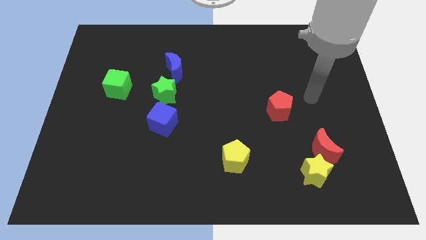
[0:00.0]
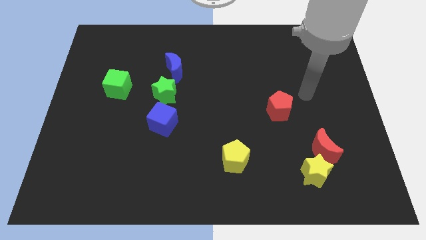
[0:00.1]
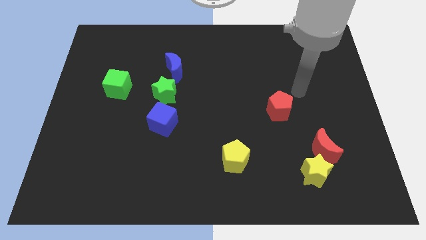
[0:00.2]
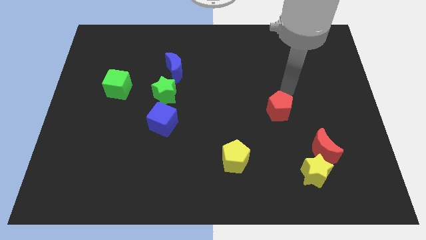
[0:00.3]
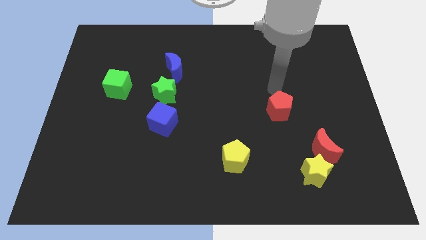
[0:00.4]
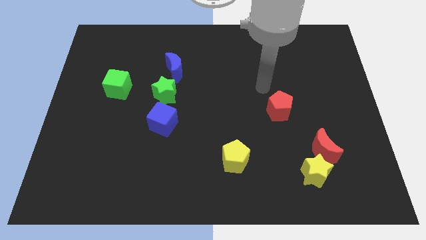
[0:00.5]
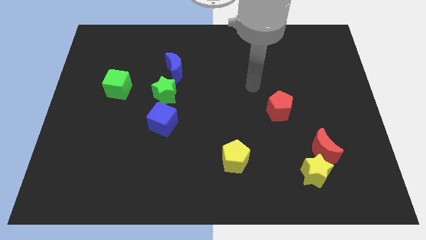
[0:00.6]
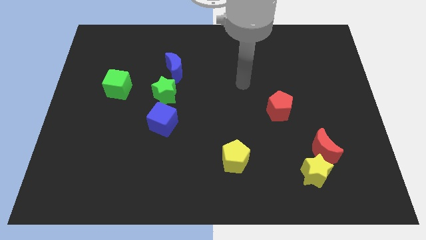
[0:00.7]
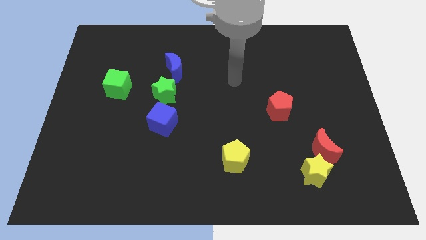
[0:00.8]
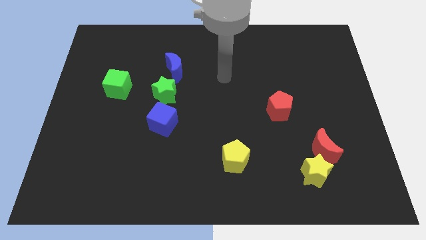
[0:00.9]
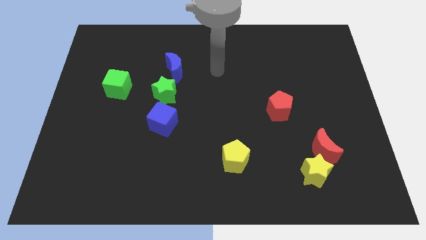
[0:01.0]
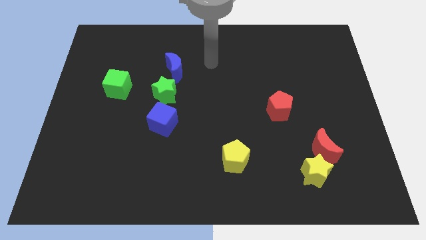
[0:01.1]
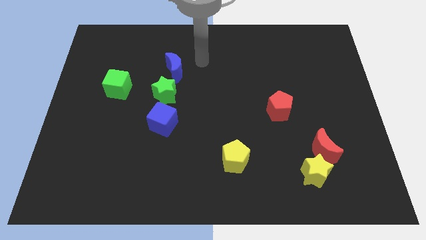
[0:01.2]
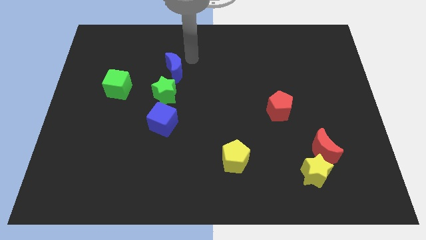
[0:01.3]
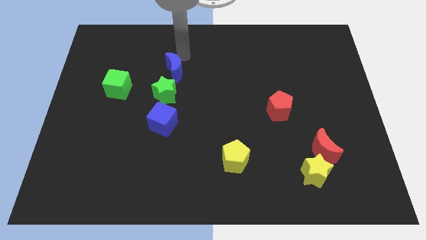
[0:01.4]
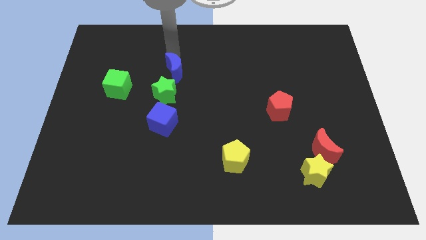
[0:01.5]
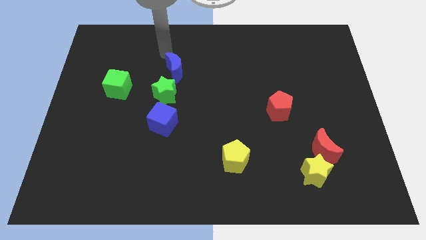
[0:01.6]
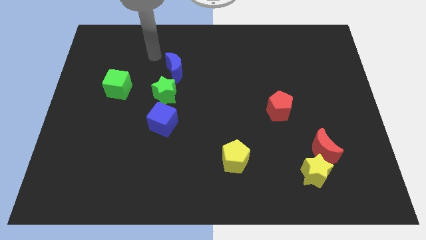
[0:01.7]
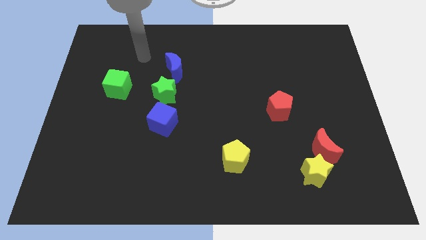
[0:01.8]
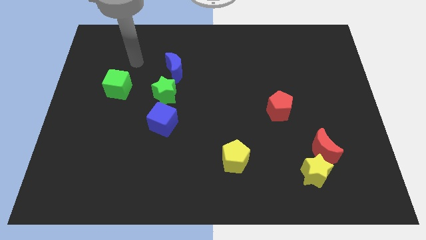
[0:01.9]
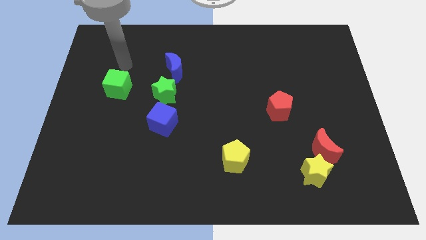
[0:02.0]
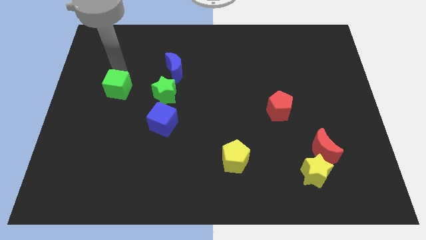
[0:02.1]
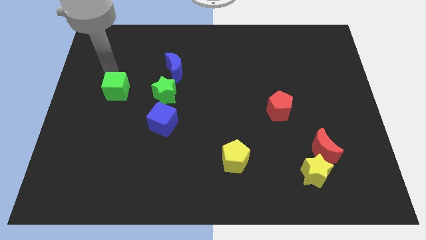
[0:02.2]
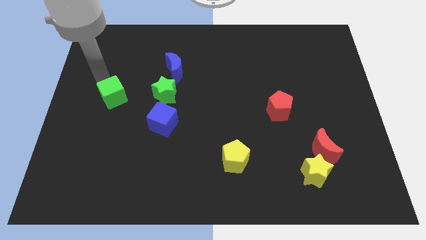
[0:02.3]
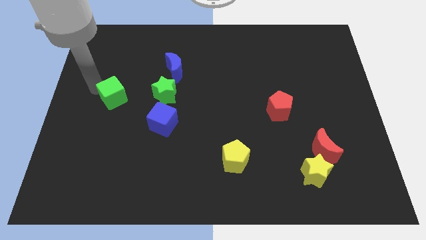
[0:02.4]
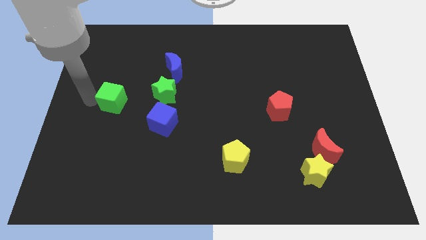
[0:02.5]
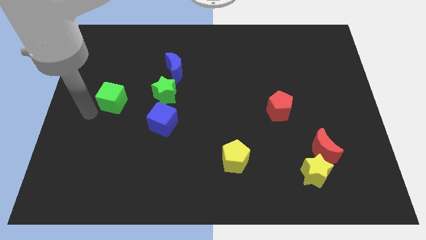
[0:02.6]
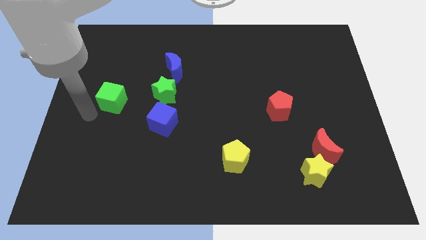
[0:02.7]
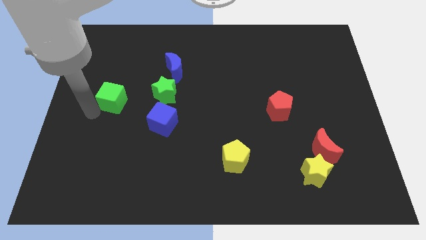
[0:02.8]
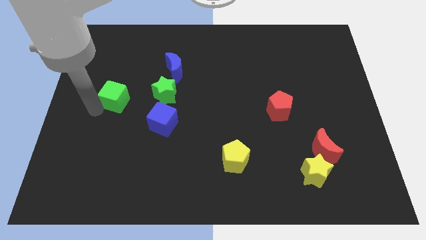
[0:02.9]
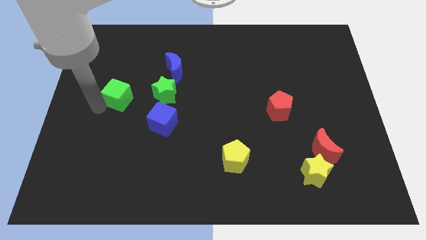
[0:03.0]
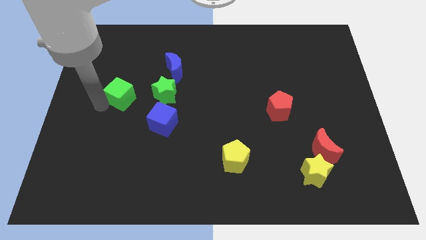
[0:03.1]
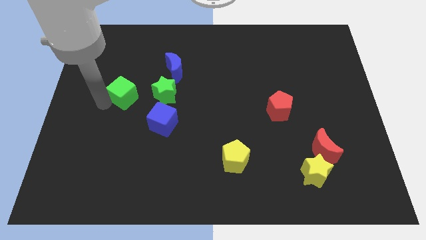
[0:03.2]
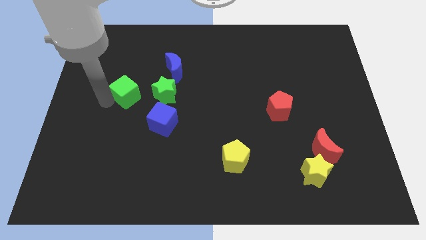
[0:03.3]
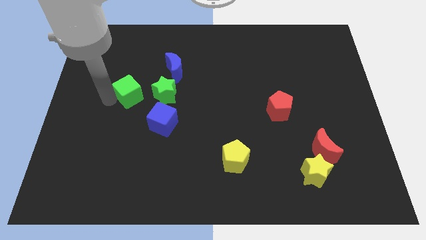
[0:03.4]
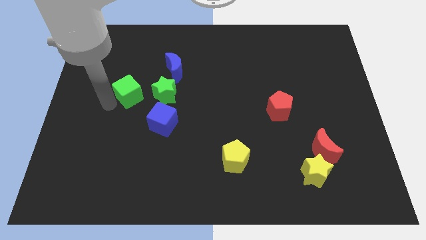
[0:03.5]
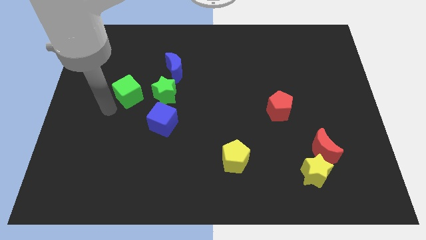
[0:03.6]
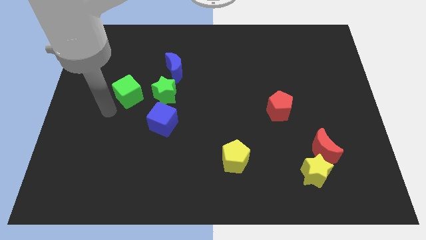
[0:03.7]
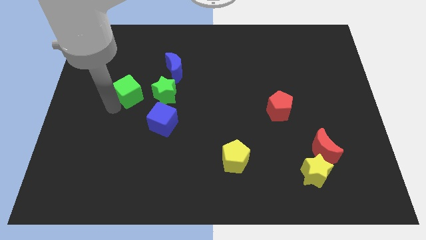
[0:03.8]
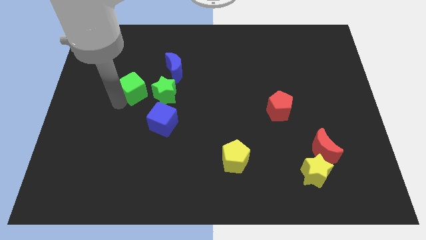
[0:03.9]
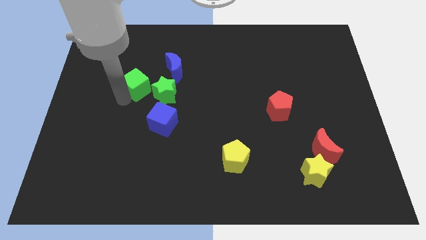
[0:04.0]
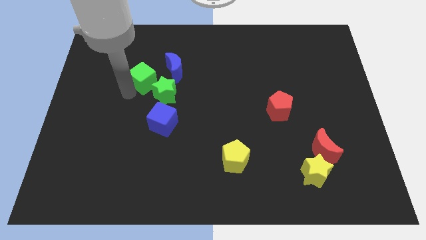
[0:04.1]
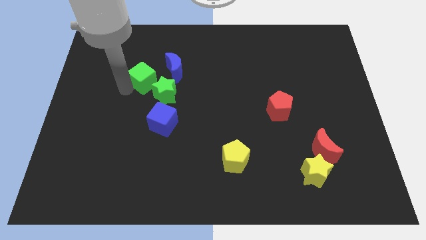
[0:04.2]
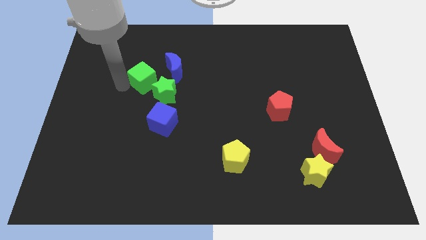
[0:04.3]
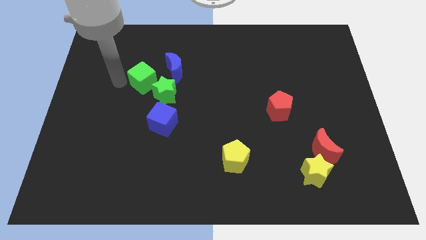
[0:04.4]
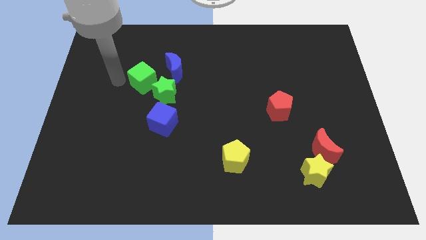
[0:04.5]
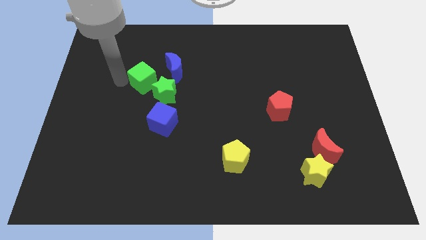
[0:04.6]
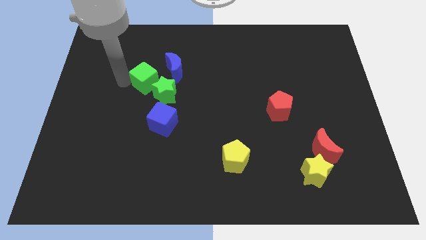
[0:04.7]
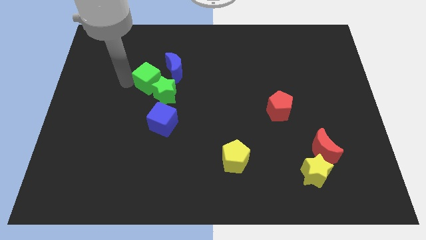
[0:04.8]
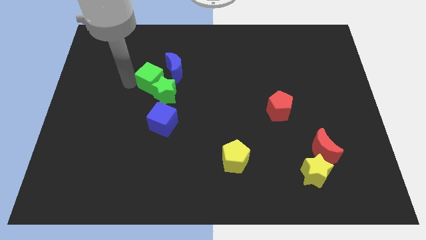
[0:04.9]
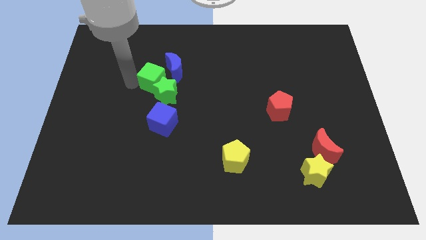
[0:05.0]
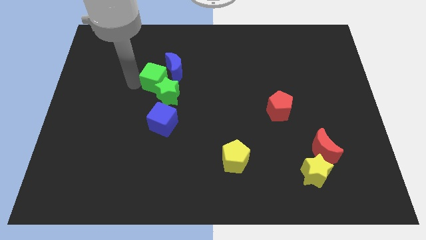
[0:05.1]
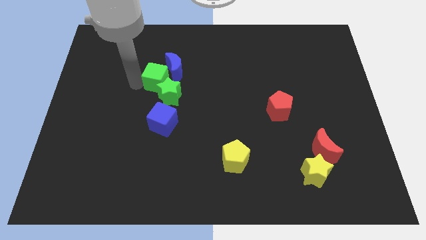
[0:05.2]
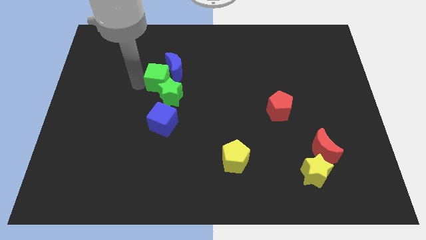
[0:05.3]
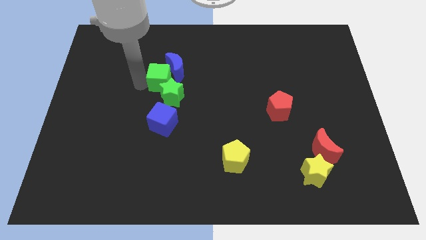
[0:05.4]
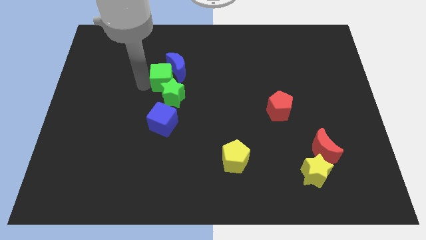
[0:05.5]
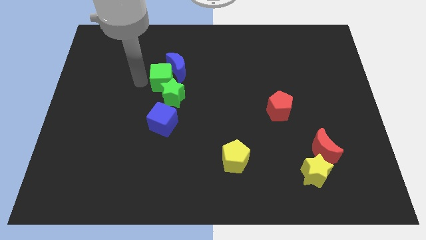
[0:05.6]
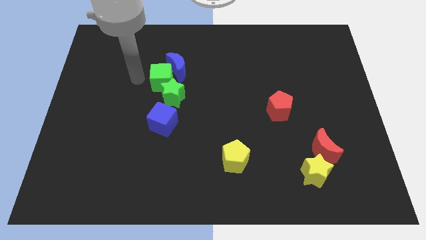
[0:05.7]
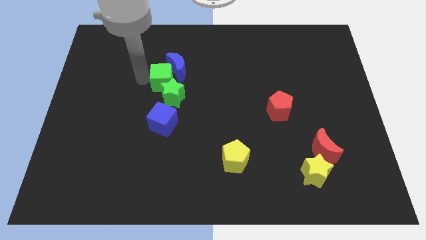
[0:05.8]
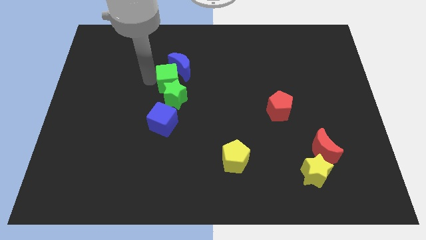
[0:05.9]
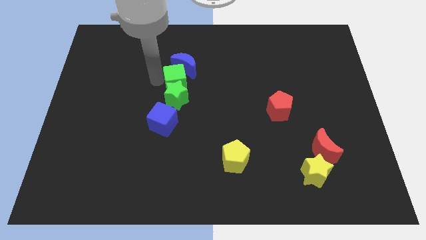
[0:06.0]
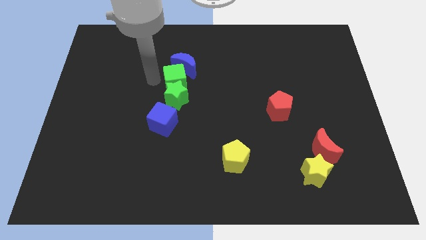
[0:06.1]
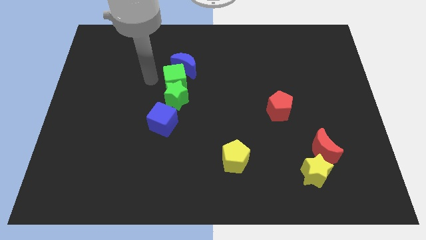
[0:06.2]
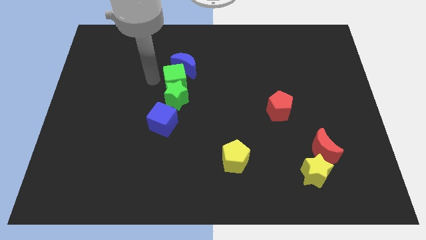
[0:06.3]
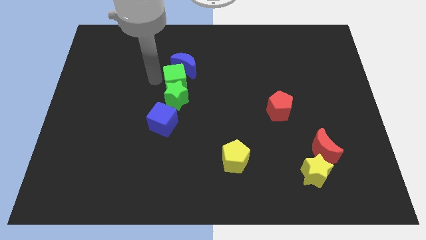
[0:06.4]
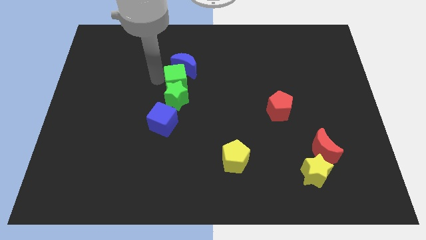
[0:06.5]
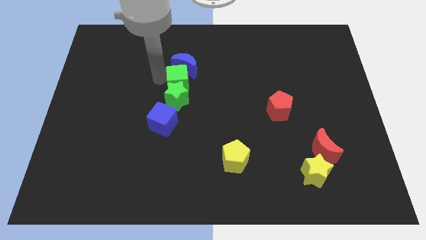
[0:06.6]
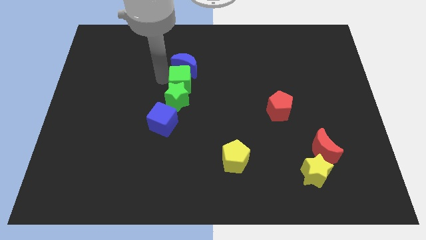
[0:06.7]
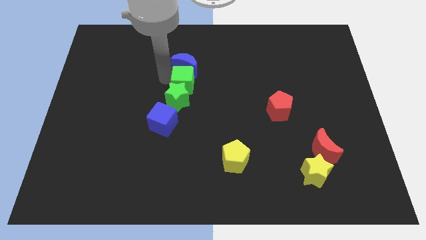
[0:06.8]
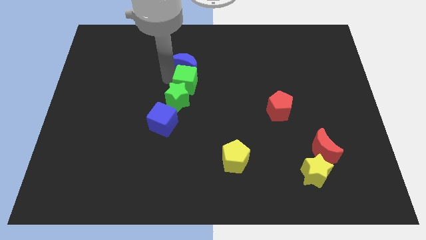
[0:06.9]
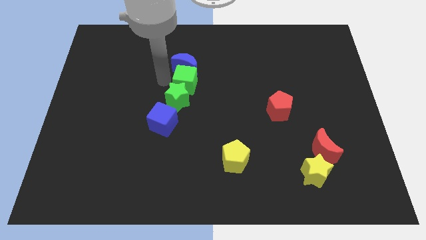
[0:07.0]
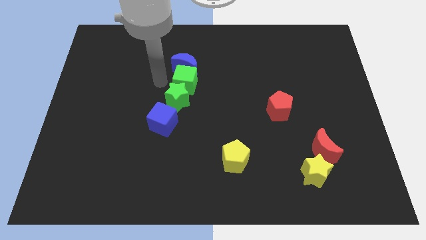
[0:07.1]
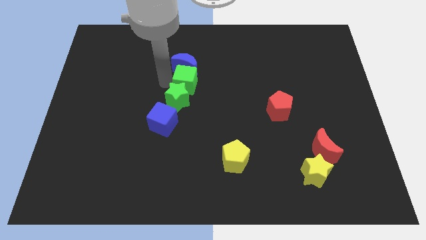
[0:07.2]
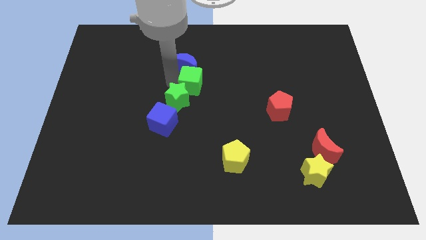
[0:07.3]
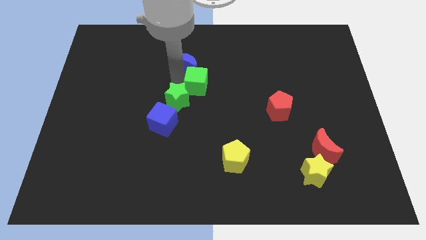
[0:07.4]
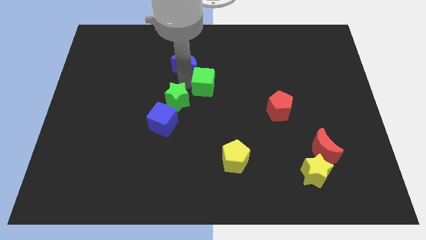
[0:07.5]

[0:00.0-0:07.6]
move the green cube right

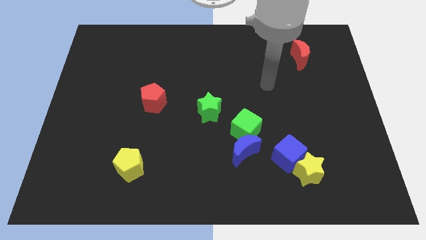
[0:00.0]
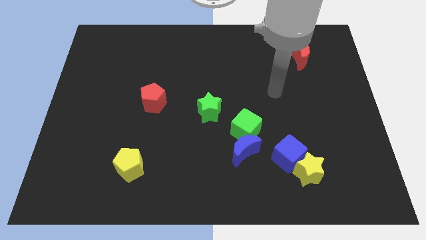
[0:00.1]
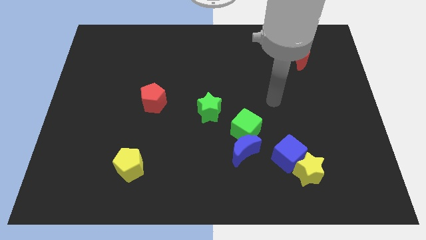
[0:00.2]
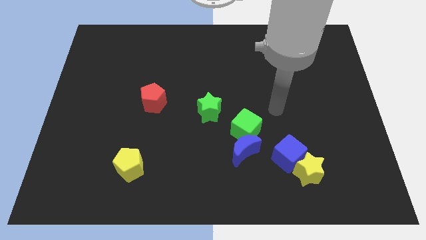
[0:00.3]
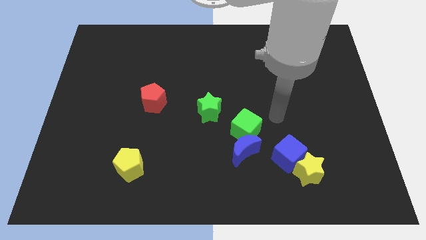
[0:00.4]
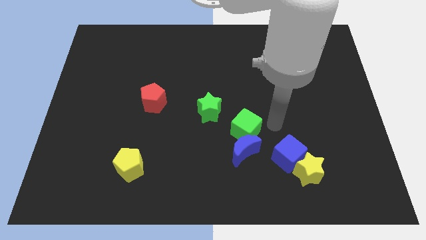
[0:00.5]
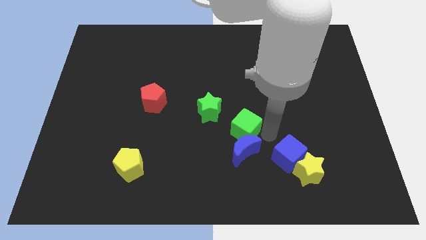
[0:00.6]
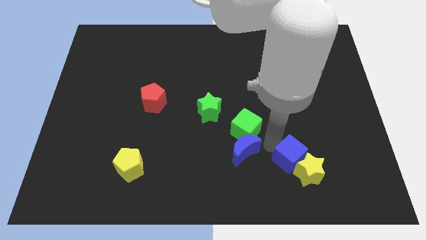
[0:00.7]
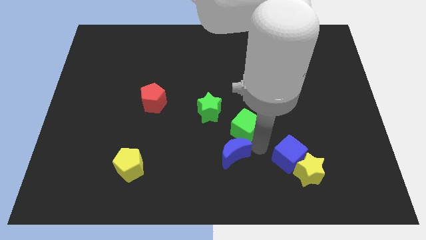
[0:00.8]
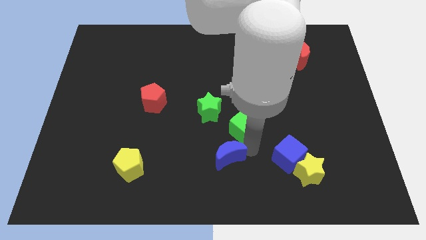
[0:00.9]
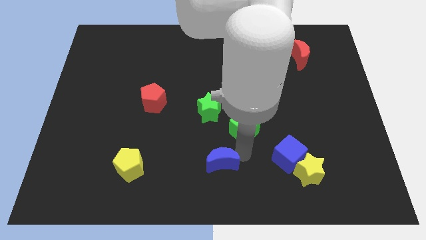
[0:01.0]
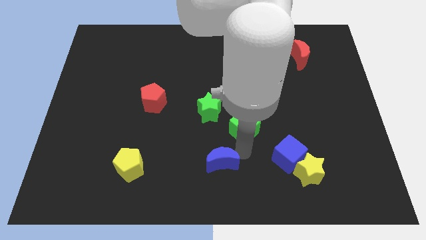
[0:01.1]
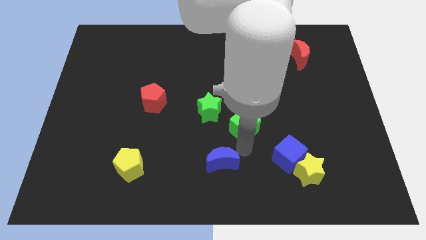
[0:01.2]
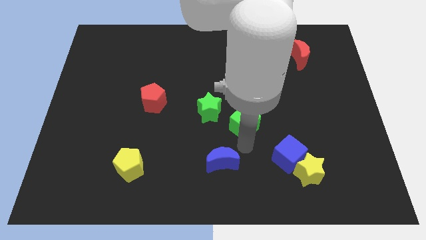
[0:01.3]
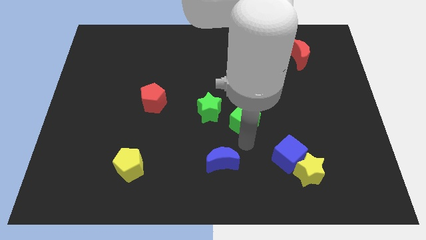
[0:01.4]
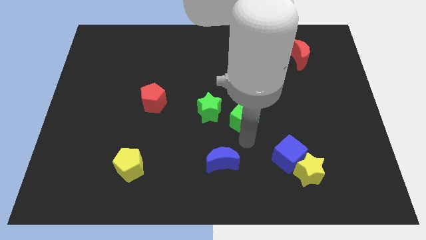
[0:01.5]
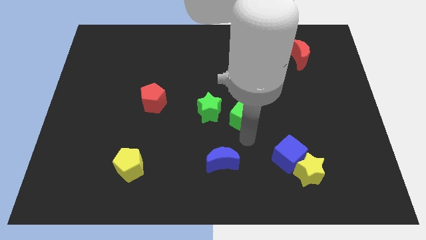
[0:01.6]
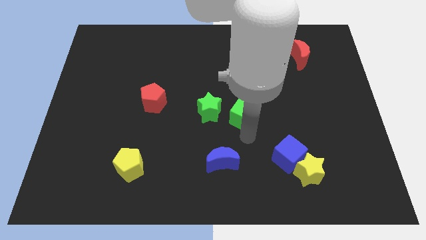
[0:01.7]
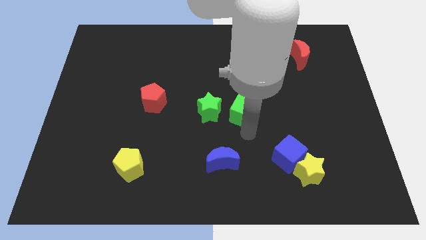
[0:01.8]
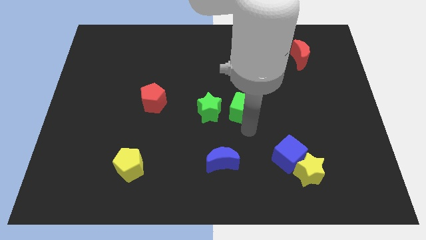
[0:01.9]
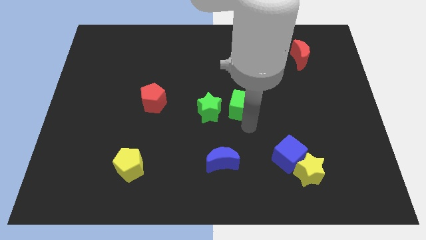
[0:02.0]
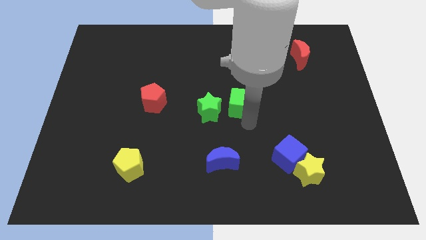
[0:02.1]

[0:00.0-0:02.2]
slide the green cube upwards somewhat
